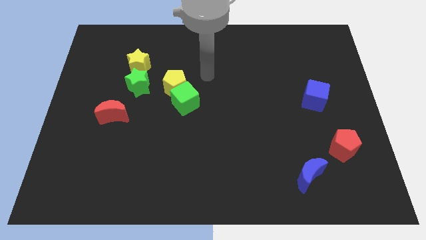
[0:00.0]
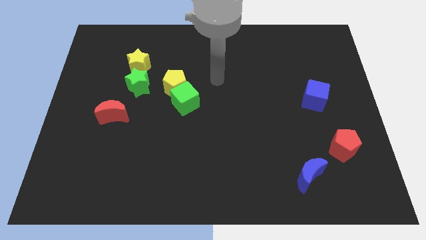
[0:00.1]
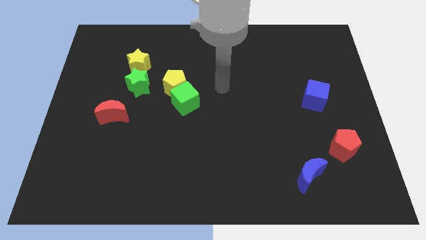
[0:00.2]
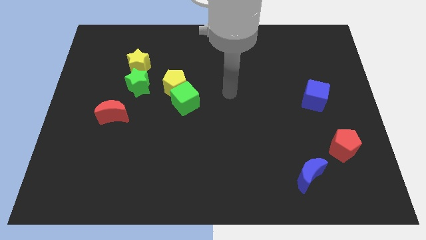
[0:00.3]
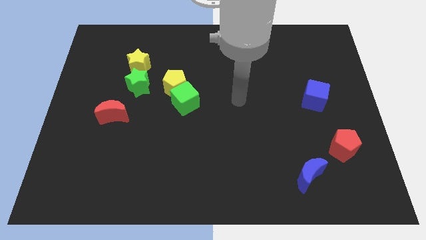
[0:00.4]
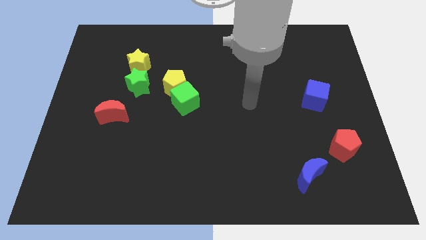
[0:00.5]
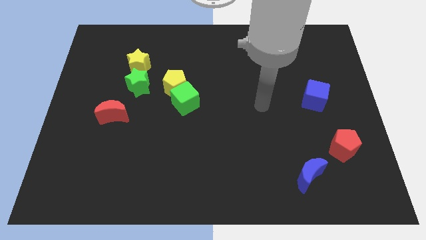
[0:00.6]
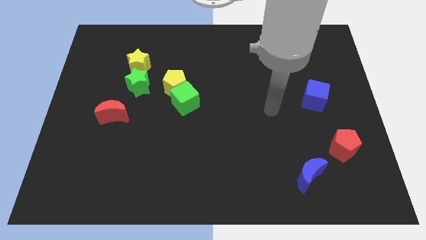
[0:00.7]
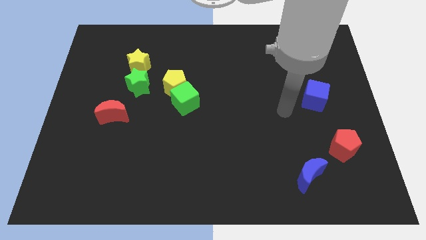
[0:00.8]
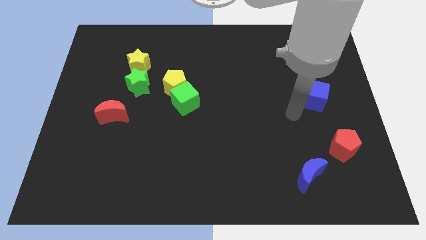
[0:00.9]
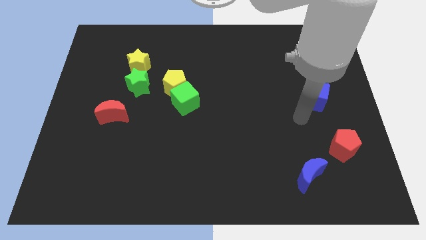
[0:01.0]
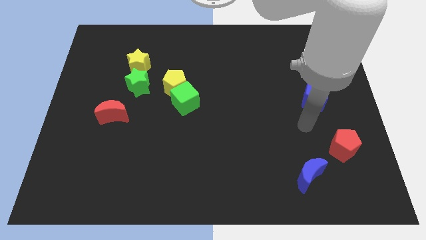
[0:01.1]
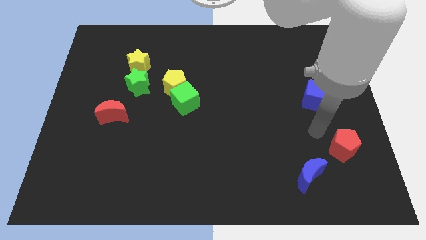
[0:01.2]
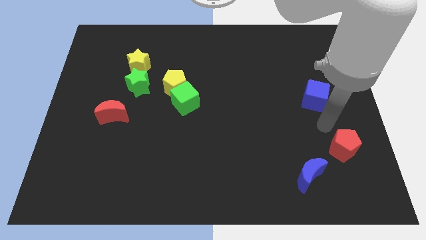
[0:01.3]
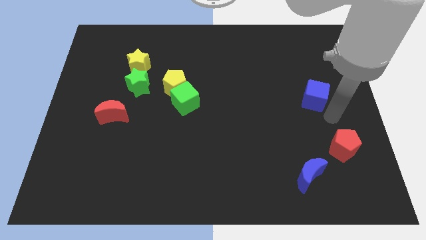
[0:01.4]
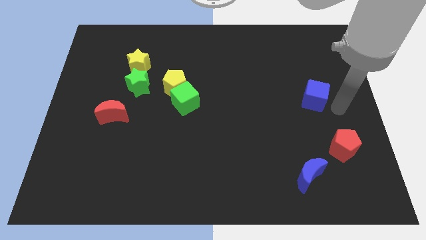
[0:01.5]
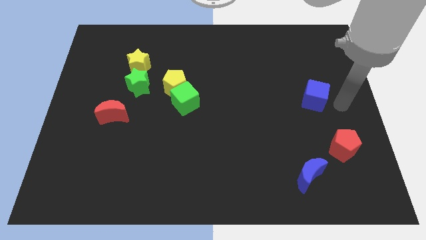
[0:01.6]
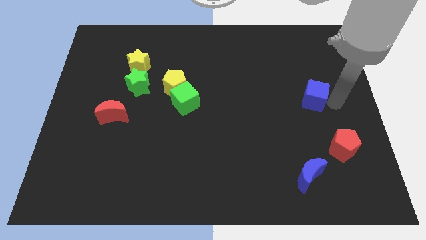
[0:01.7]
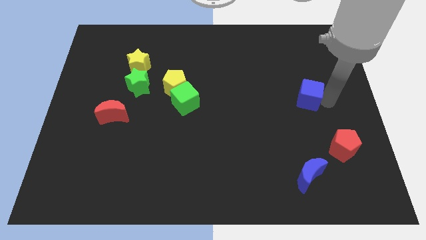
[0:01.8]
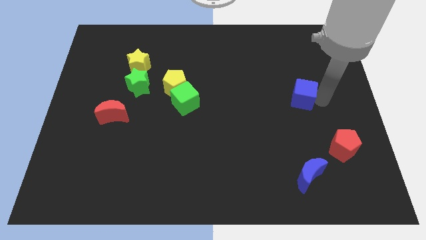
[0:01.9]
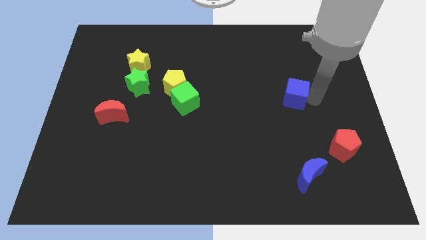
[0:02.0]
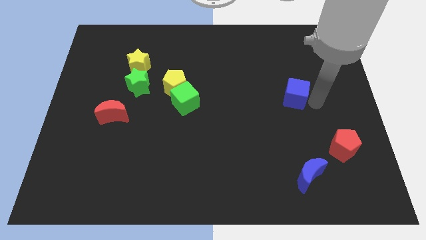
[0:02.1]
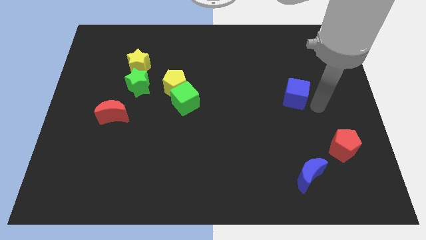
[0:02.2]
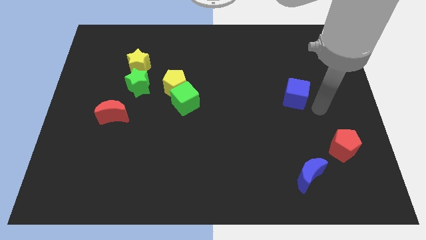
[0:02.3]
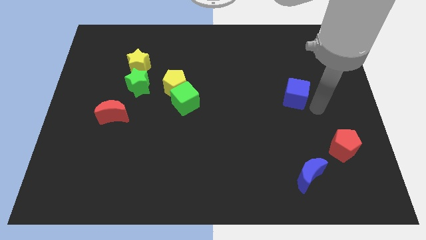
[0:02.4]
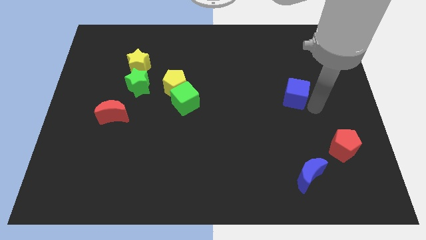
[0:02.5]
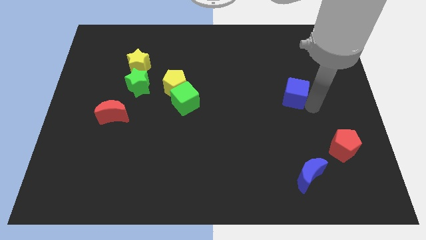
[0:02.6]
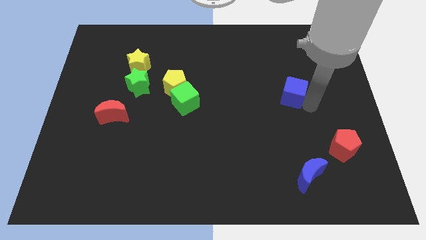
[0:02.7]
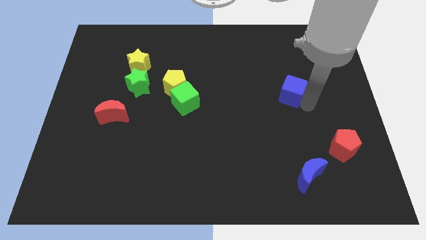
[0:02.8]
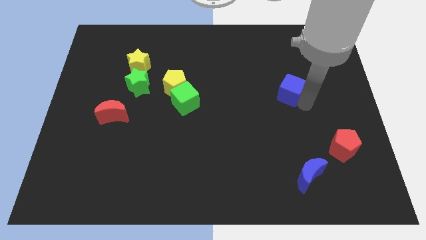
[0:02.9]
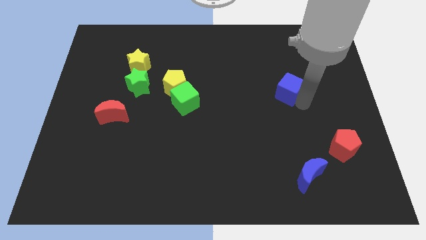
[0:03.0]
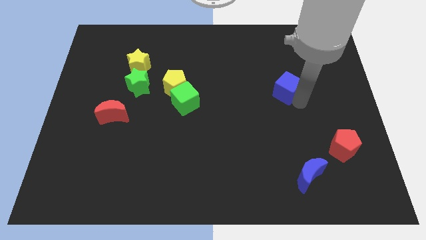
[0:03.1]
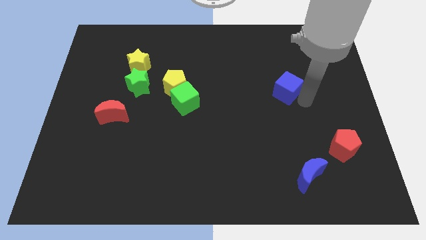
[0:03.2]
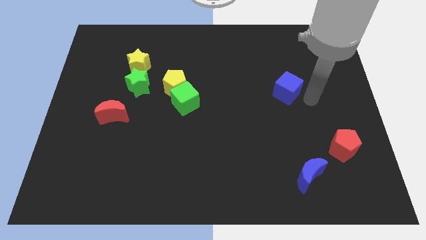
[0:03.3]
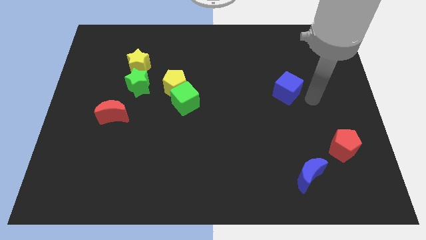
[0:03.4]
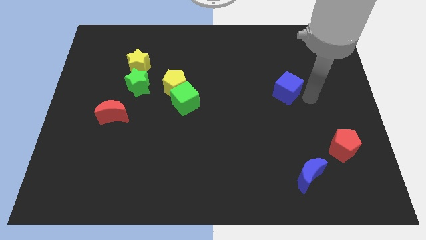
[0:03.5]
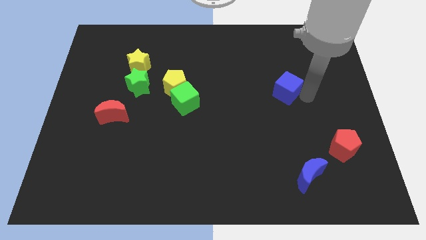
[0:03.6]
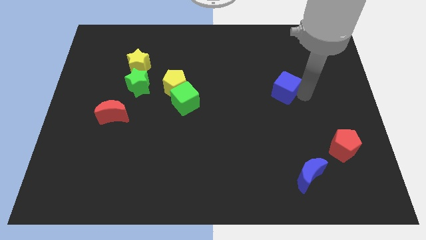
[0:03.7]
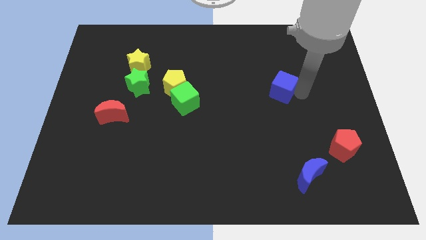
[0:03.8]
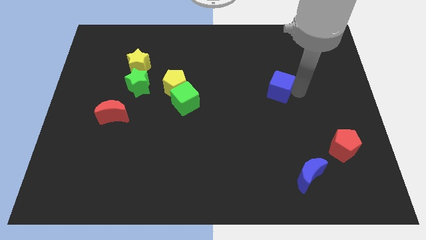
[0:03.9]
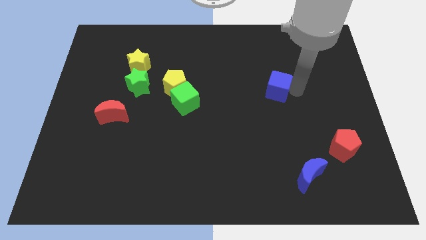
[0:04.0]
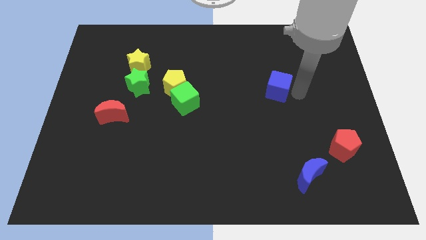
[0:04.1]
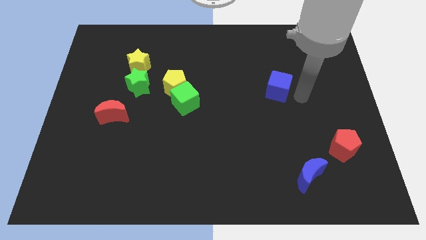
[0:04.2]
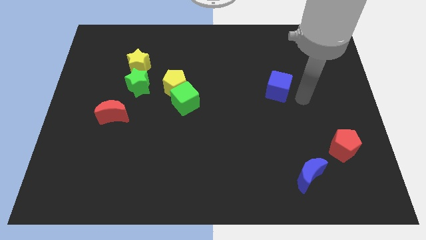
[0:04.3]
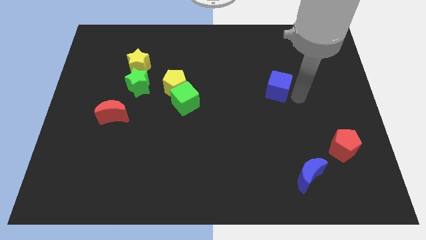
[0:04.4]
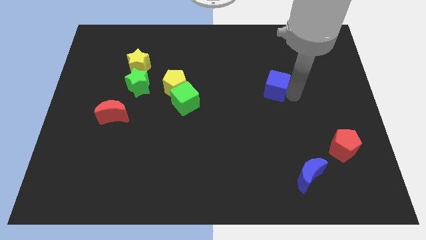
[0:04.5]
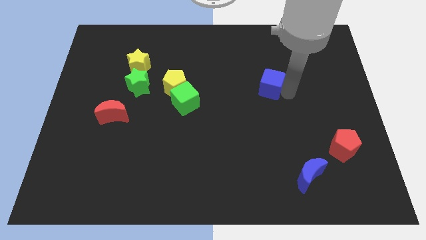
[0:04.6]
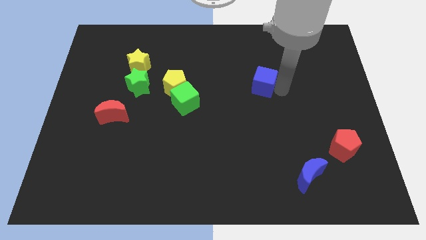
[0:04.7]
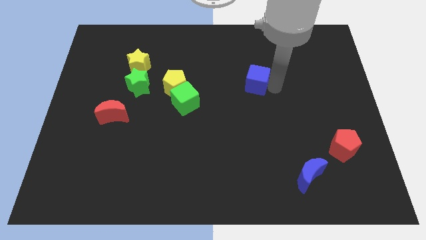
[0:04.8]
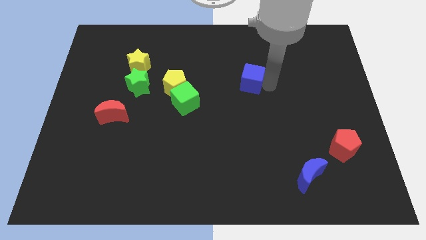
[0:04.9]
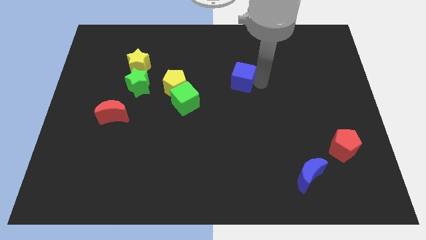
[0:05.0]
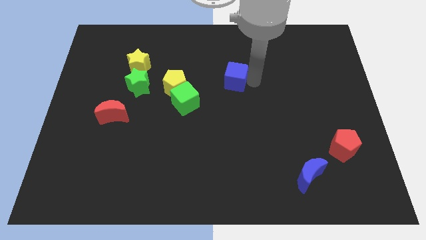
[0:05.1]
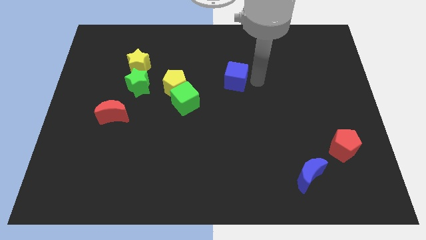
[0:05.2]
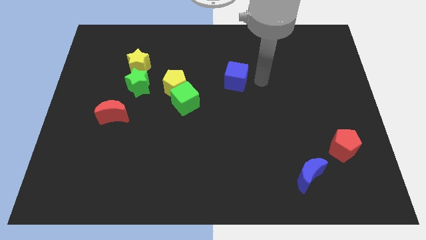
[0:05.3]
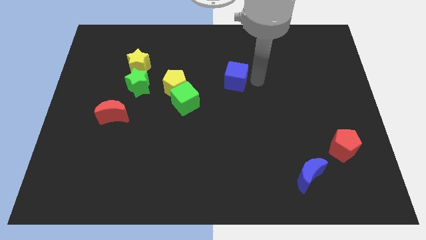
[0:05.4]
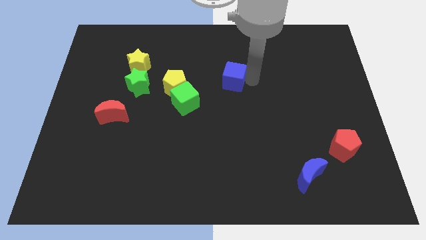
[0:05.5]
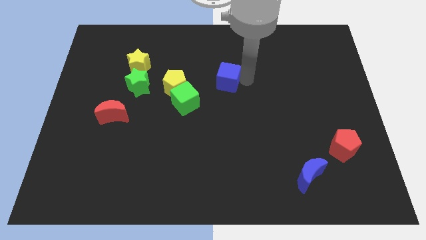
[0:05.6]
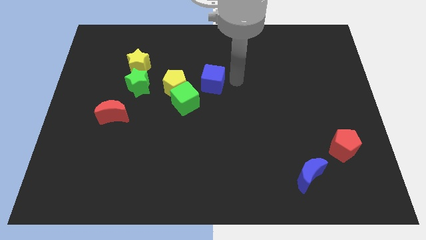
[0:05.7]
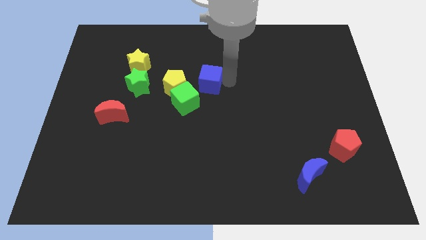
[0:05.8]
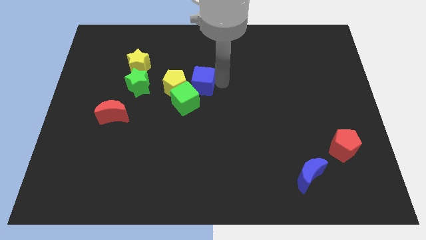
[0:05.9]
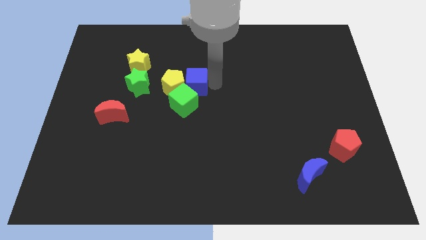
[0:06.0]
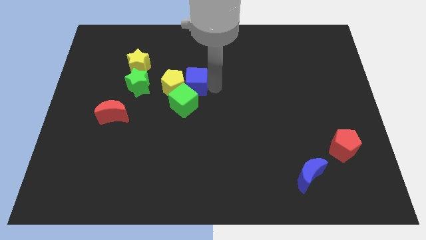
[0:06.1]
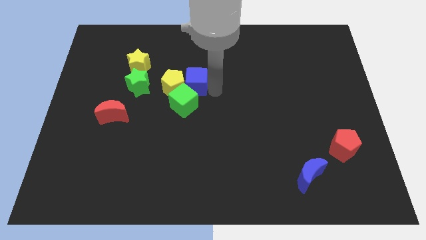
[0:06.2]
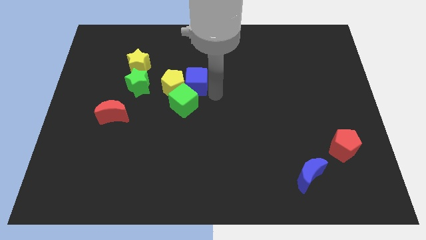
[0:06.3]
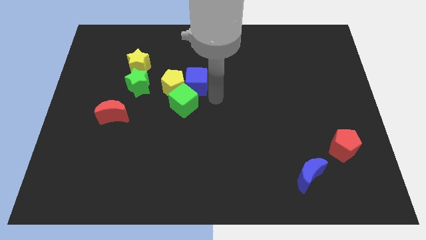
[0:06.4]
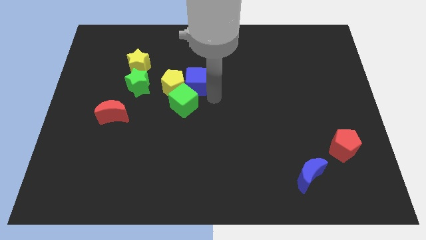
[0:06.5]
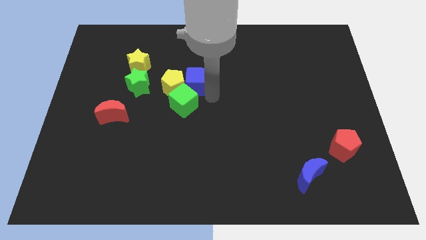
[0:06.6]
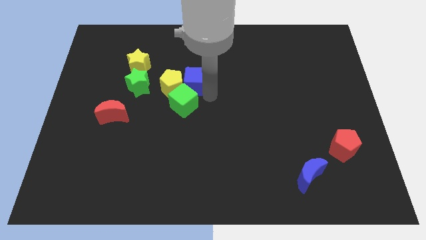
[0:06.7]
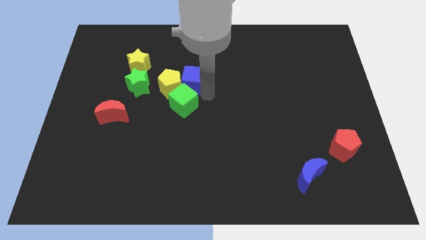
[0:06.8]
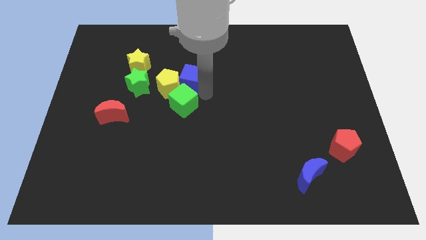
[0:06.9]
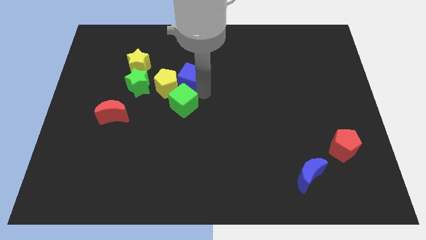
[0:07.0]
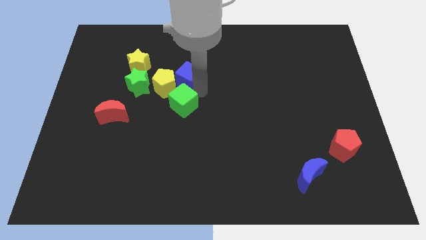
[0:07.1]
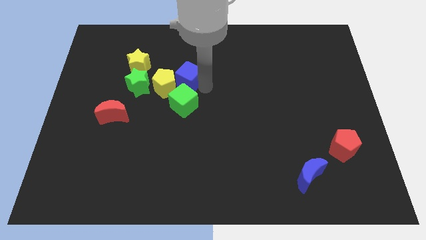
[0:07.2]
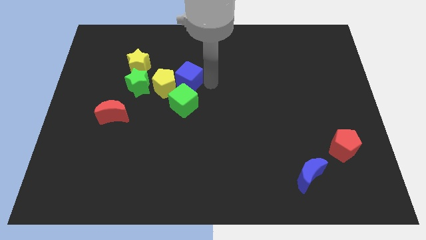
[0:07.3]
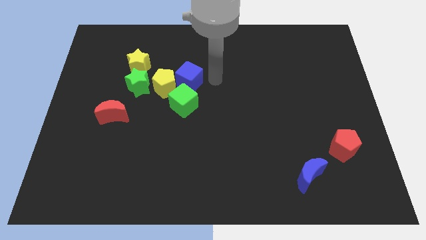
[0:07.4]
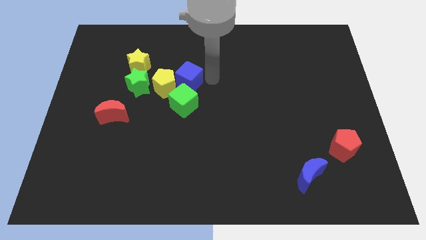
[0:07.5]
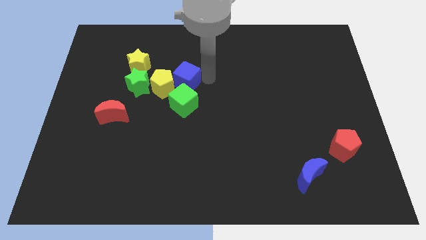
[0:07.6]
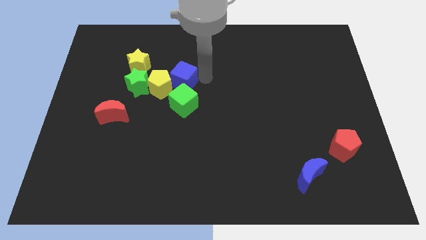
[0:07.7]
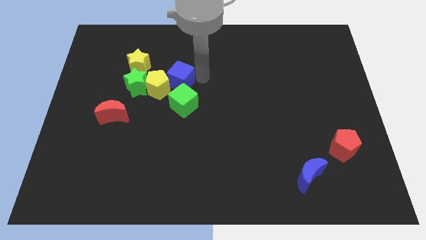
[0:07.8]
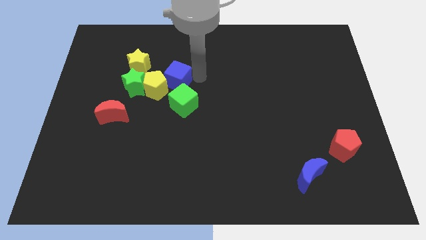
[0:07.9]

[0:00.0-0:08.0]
slide the blue cube diagonally down and to the right of the yellow star
